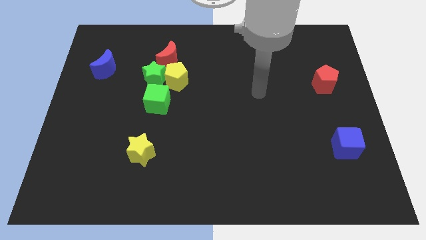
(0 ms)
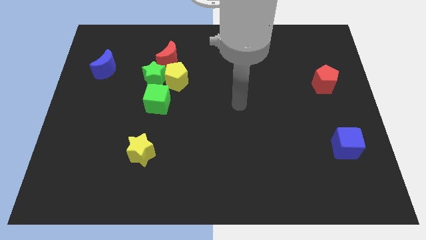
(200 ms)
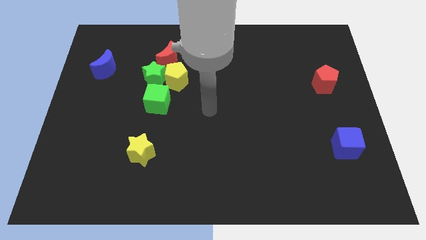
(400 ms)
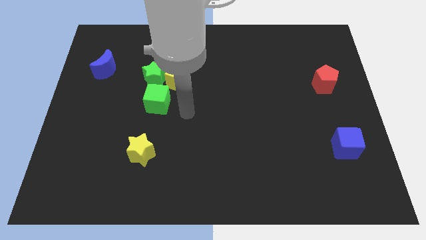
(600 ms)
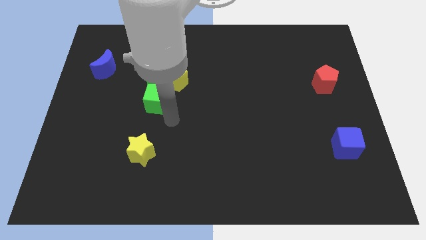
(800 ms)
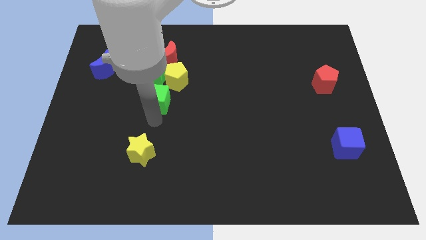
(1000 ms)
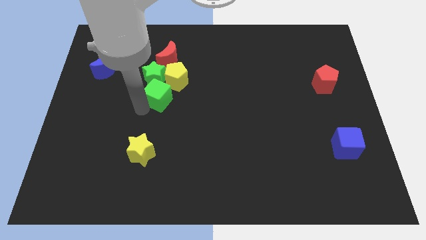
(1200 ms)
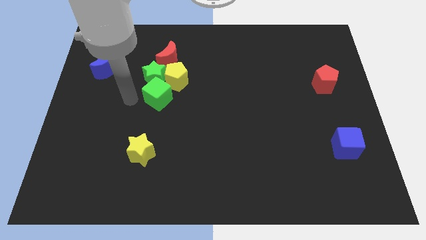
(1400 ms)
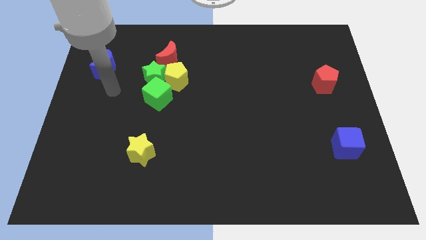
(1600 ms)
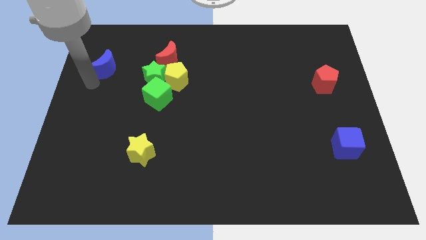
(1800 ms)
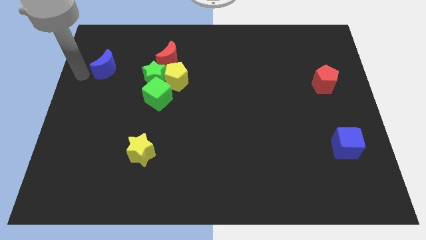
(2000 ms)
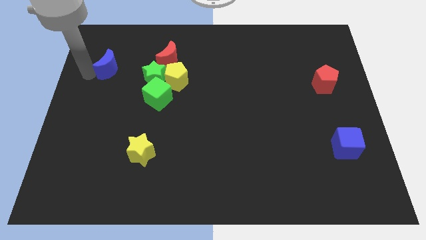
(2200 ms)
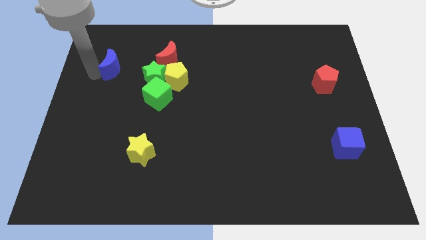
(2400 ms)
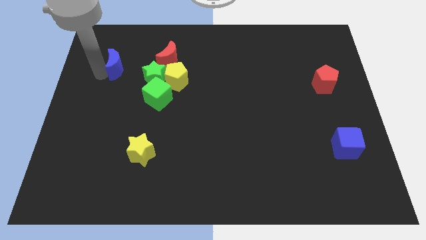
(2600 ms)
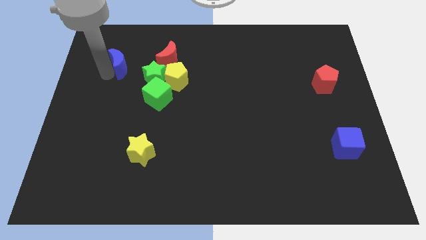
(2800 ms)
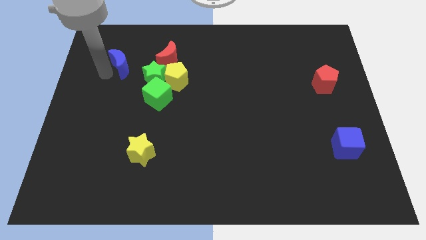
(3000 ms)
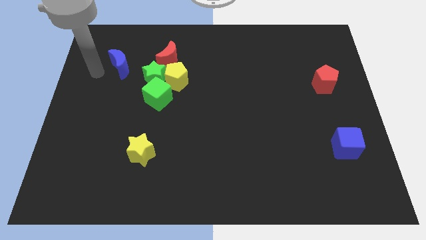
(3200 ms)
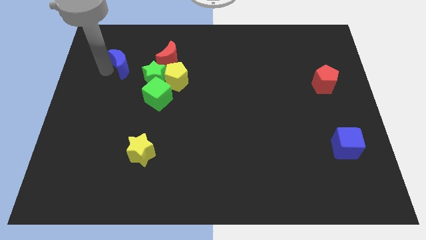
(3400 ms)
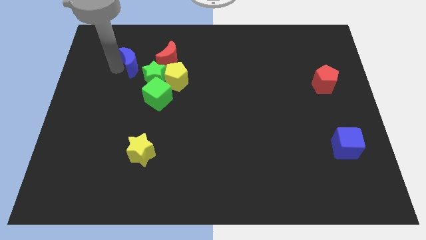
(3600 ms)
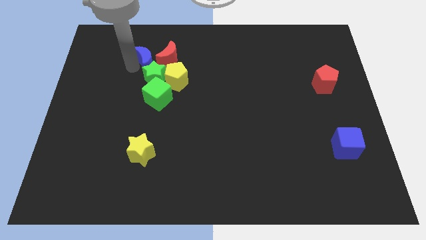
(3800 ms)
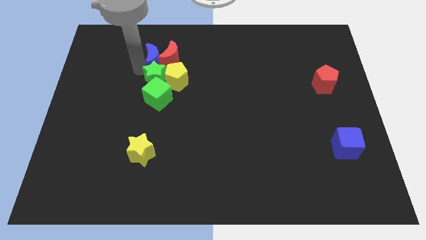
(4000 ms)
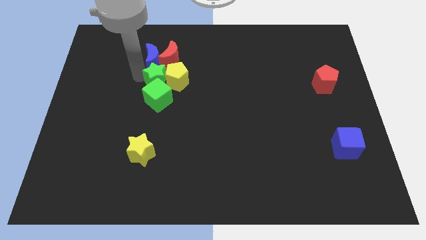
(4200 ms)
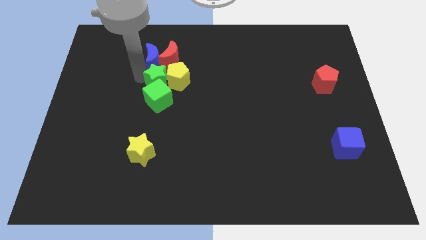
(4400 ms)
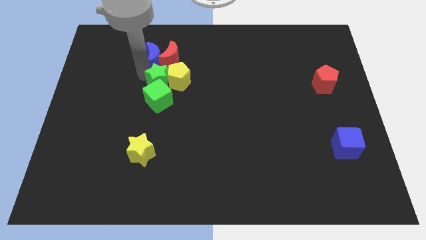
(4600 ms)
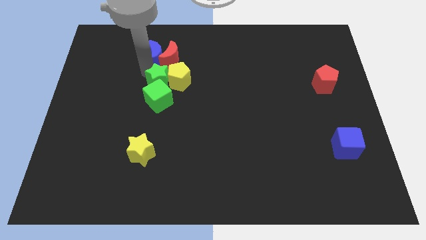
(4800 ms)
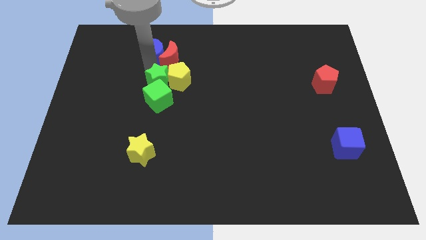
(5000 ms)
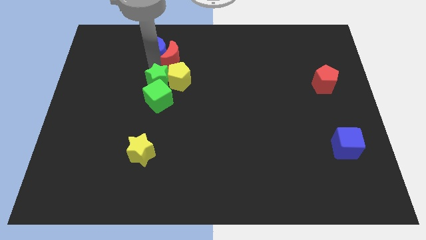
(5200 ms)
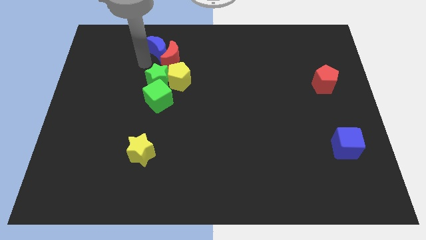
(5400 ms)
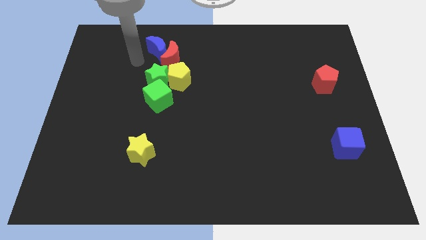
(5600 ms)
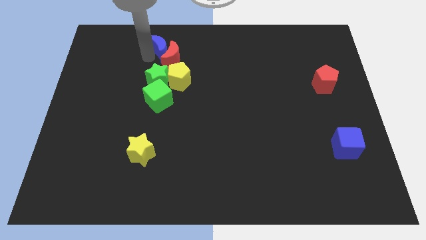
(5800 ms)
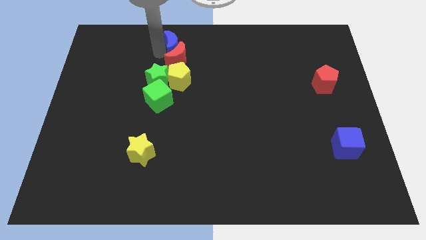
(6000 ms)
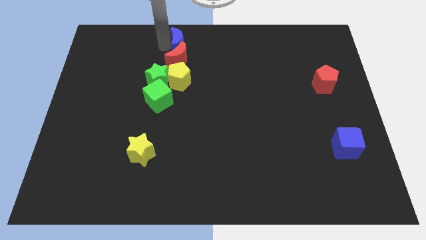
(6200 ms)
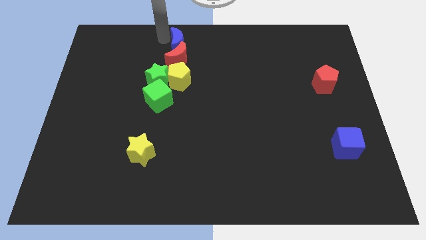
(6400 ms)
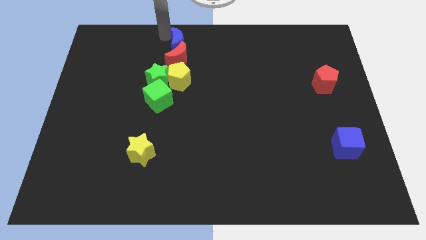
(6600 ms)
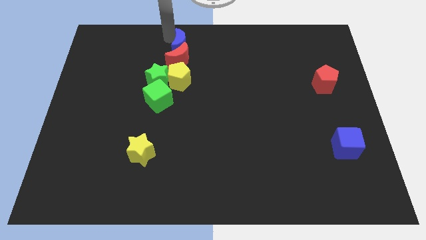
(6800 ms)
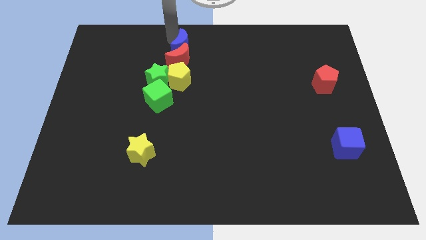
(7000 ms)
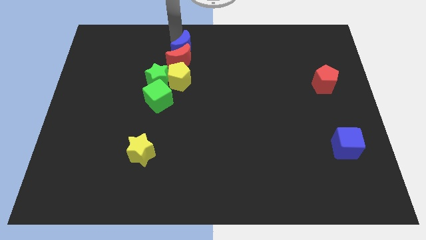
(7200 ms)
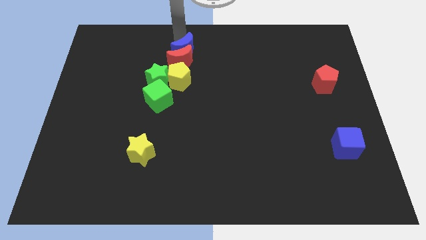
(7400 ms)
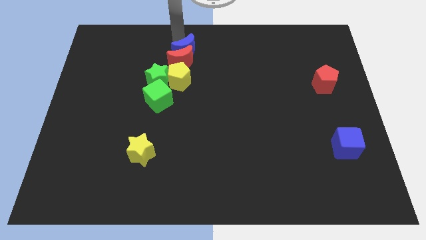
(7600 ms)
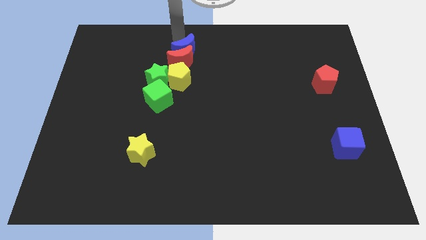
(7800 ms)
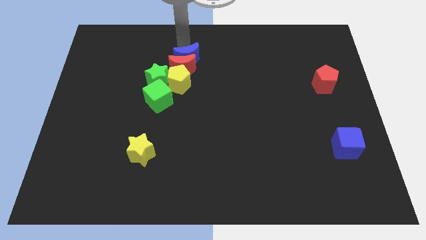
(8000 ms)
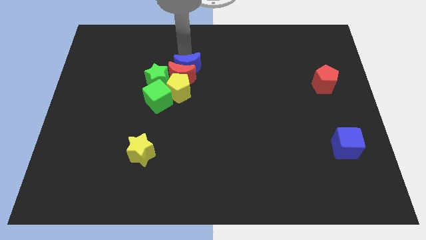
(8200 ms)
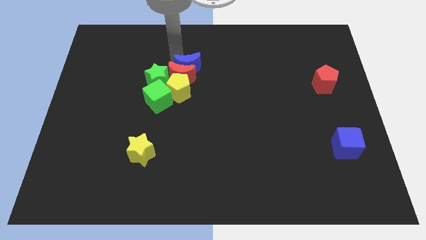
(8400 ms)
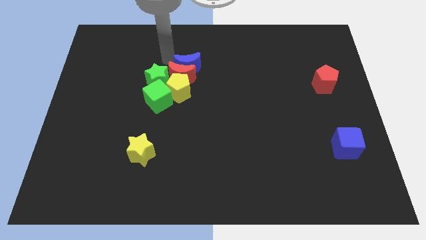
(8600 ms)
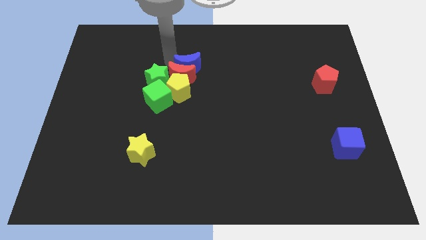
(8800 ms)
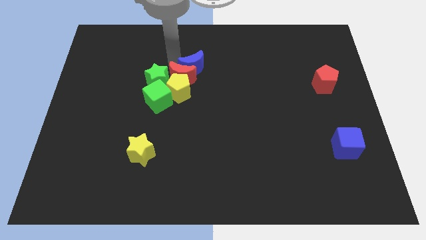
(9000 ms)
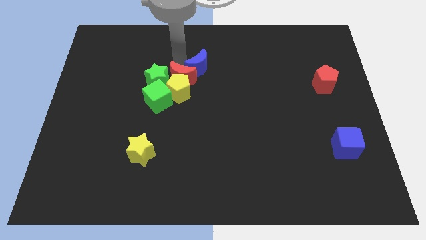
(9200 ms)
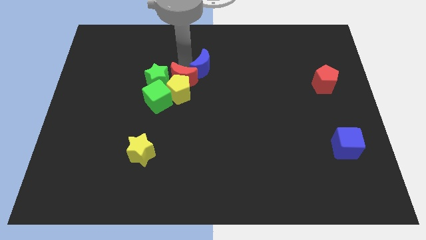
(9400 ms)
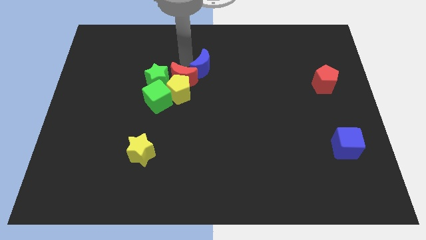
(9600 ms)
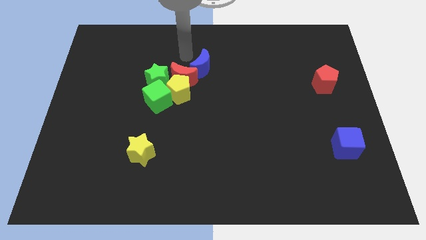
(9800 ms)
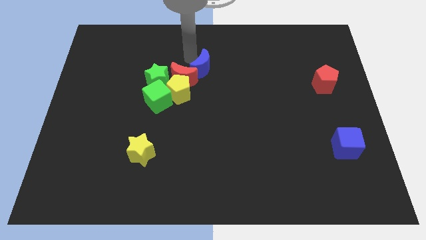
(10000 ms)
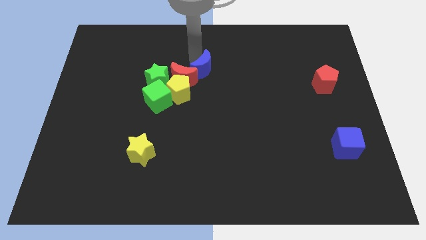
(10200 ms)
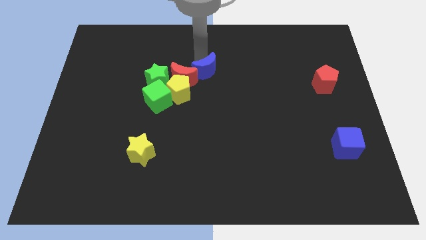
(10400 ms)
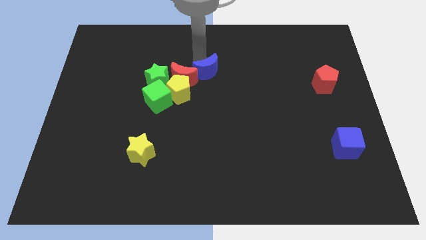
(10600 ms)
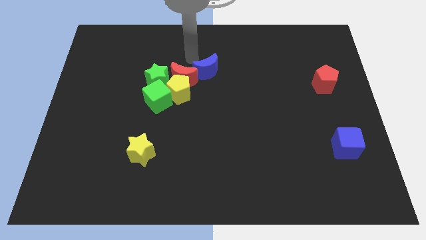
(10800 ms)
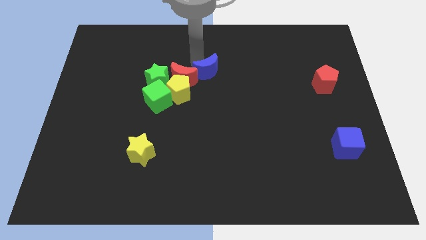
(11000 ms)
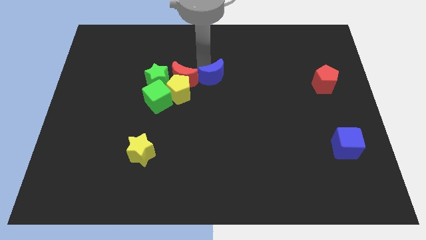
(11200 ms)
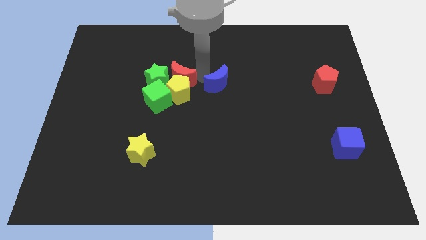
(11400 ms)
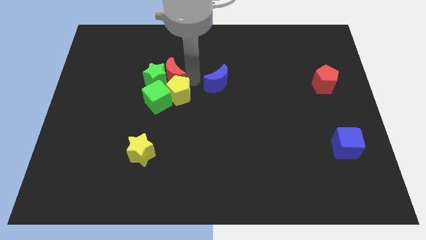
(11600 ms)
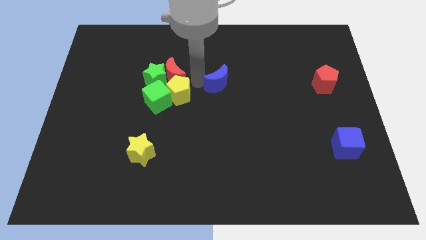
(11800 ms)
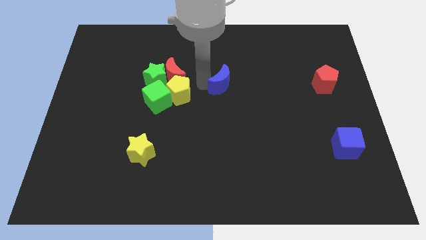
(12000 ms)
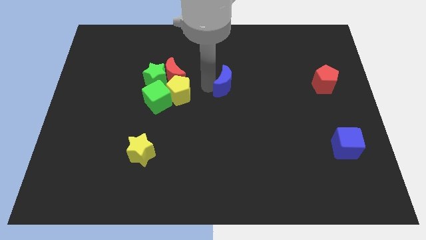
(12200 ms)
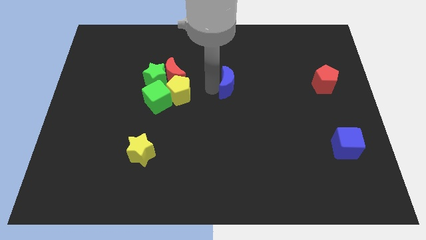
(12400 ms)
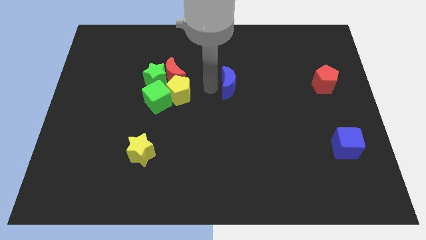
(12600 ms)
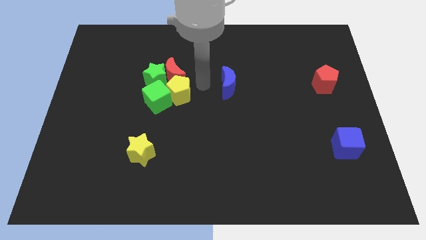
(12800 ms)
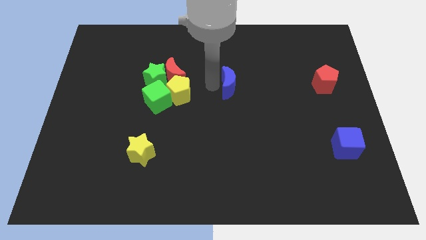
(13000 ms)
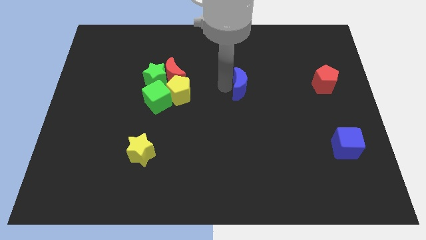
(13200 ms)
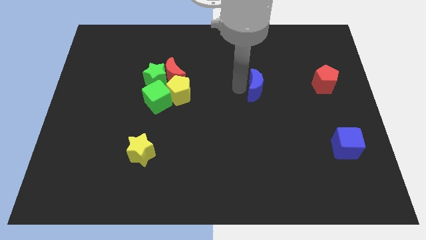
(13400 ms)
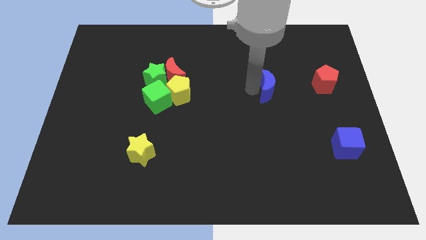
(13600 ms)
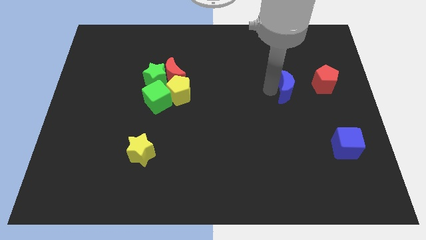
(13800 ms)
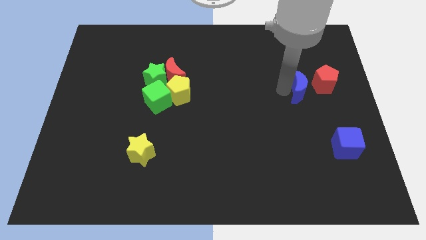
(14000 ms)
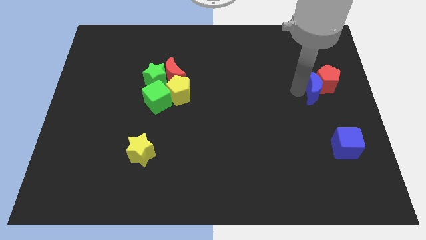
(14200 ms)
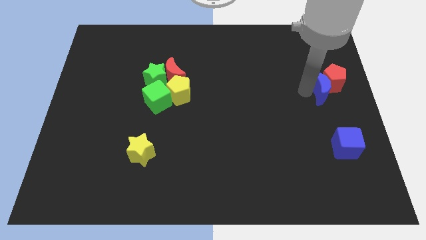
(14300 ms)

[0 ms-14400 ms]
put the blue moon to the right side
